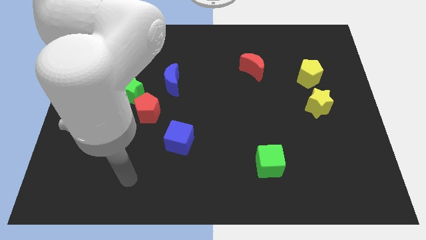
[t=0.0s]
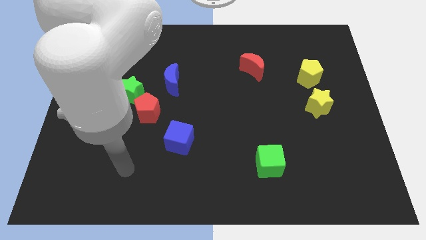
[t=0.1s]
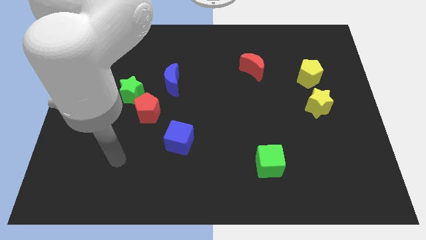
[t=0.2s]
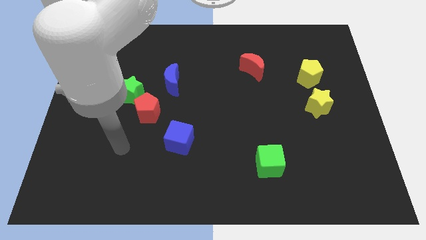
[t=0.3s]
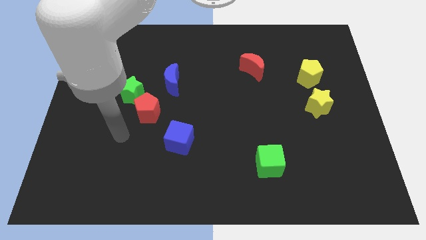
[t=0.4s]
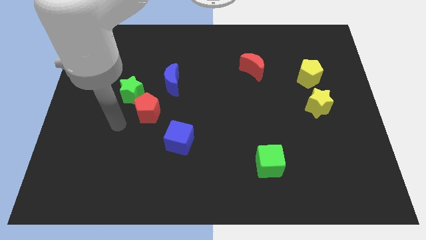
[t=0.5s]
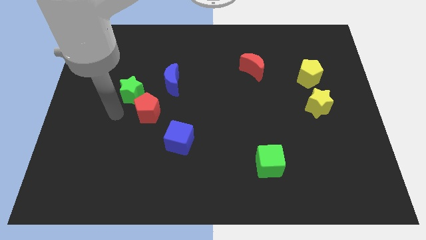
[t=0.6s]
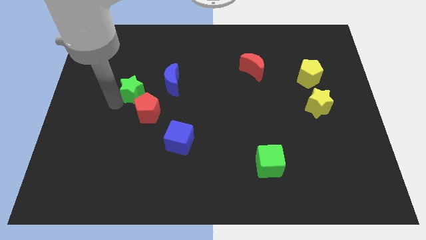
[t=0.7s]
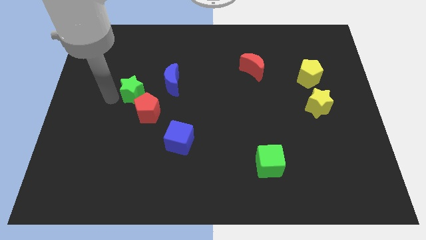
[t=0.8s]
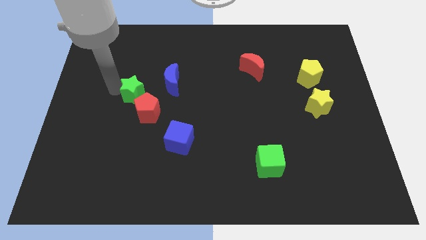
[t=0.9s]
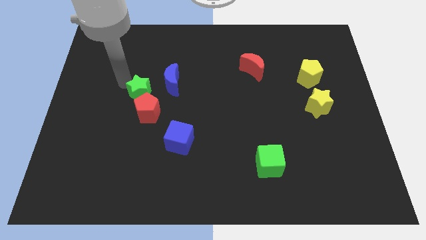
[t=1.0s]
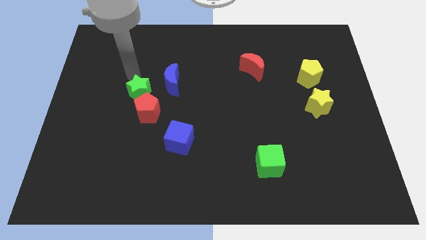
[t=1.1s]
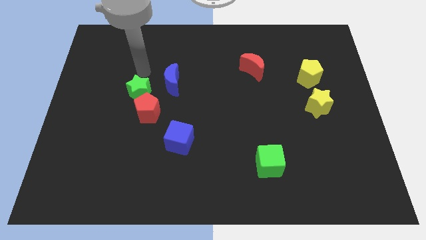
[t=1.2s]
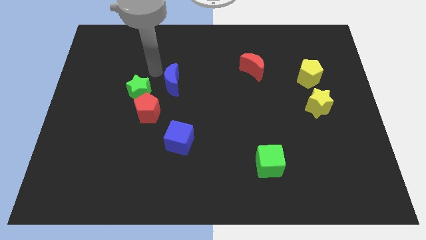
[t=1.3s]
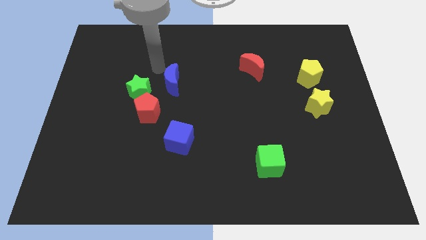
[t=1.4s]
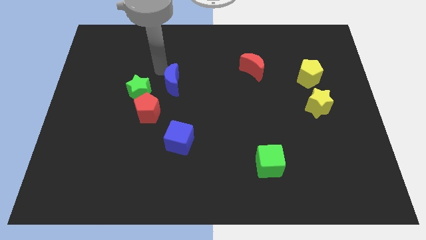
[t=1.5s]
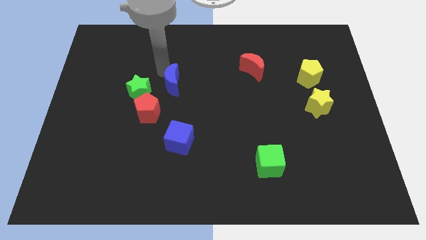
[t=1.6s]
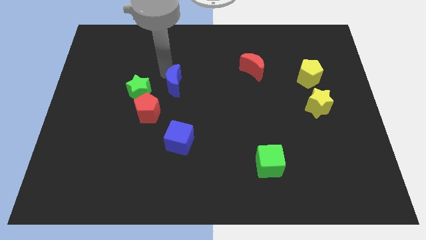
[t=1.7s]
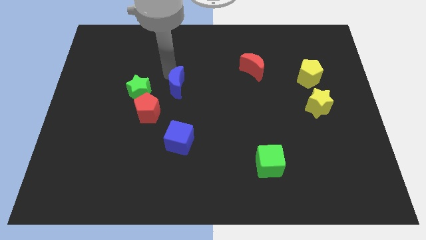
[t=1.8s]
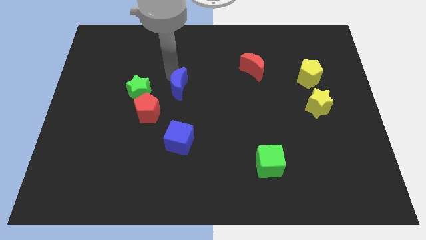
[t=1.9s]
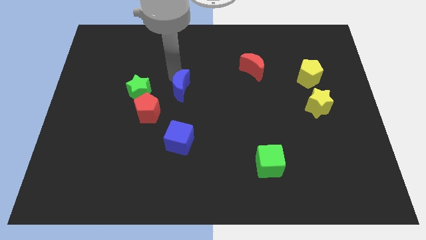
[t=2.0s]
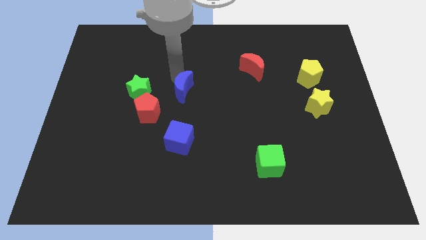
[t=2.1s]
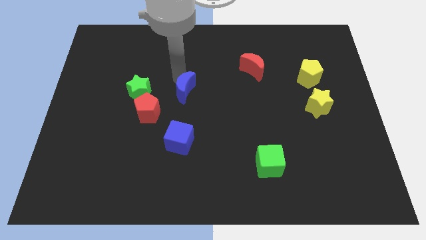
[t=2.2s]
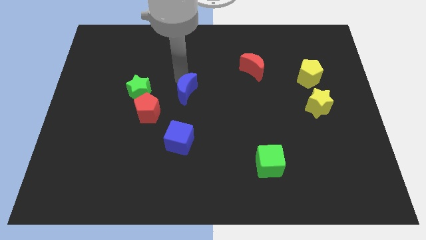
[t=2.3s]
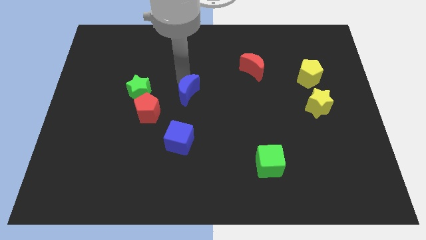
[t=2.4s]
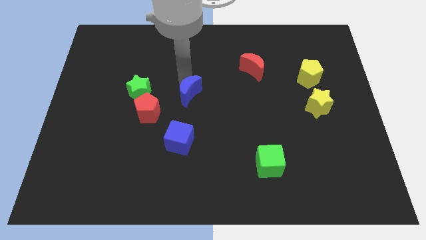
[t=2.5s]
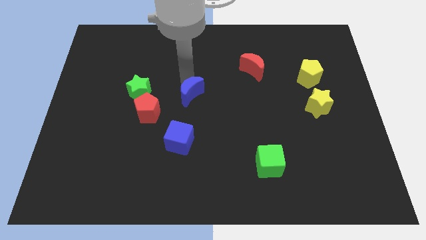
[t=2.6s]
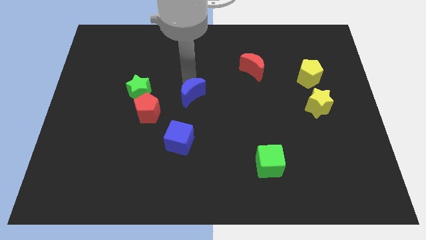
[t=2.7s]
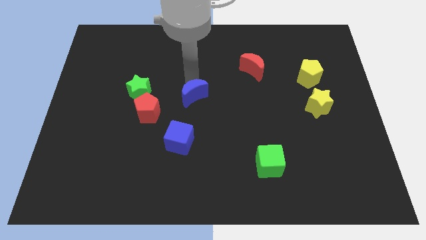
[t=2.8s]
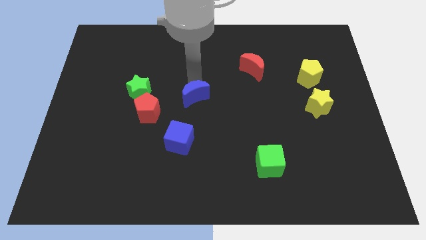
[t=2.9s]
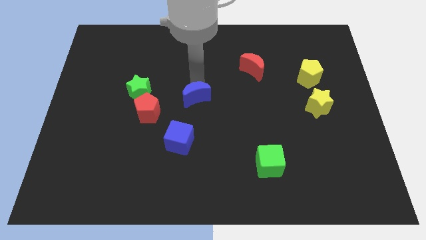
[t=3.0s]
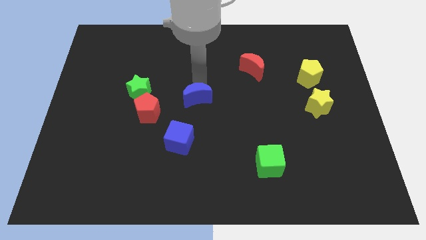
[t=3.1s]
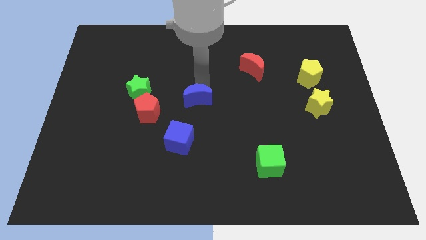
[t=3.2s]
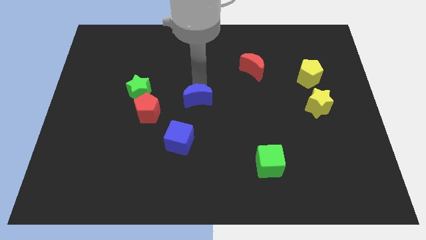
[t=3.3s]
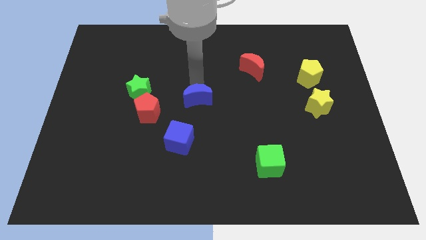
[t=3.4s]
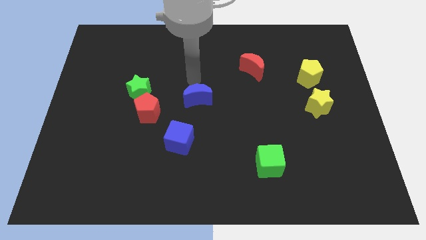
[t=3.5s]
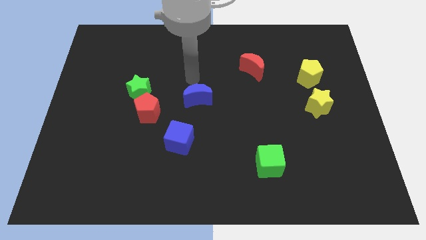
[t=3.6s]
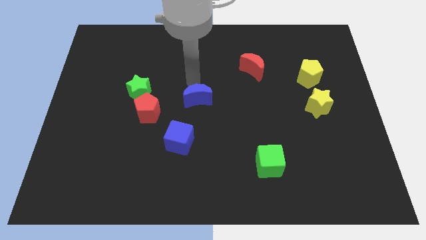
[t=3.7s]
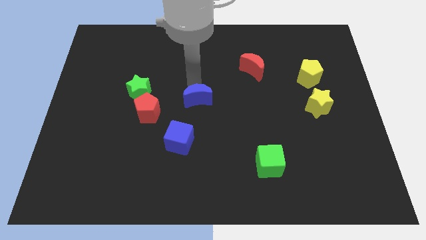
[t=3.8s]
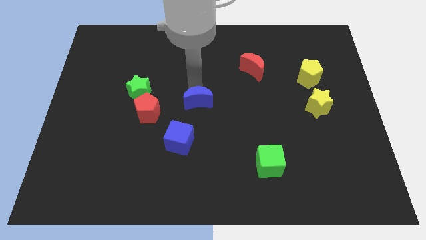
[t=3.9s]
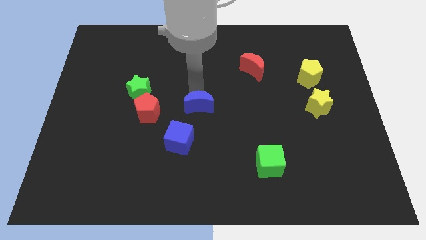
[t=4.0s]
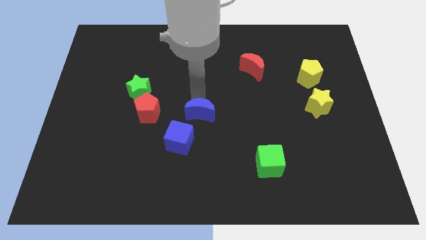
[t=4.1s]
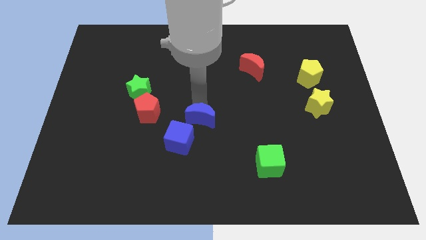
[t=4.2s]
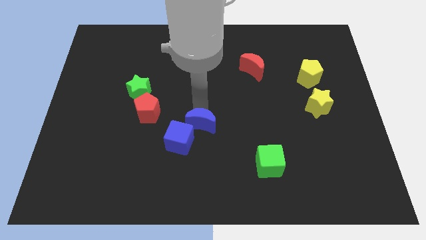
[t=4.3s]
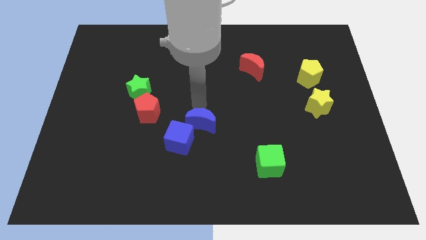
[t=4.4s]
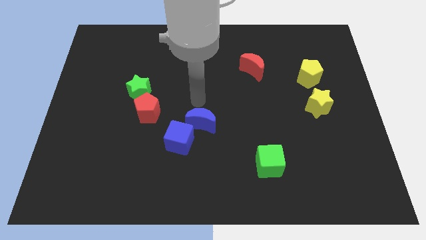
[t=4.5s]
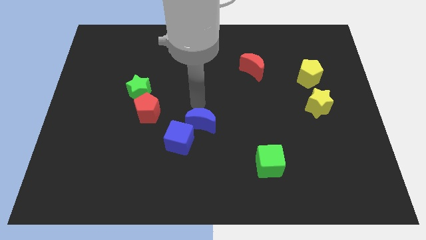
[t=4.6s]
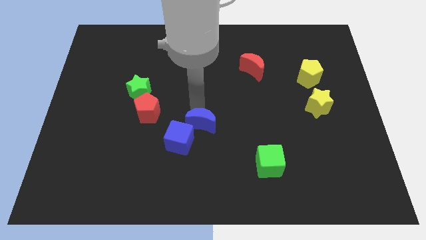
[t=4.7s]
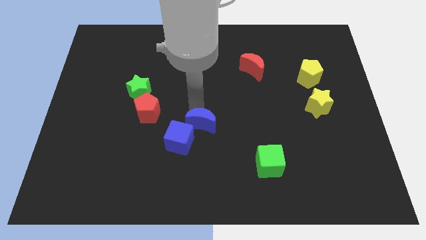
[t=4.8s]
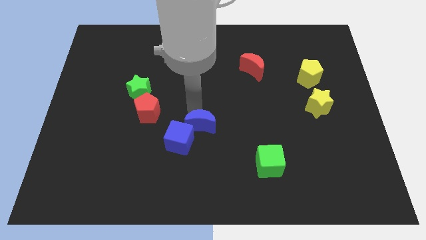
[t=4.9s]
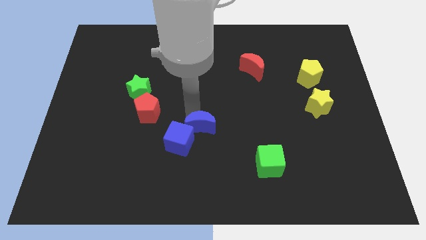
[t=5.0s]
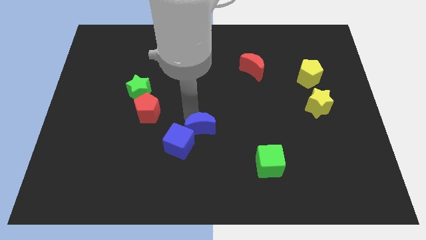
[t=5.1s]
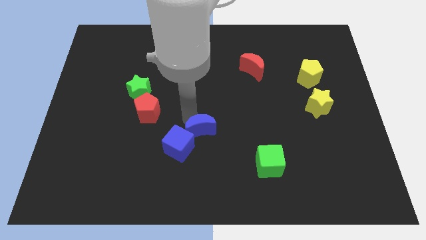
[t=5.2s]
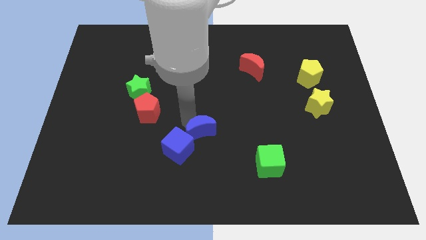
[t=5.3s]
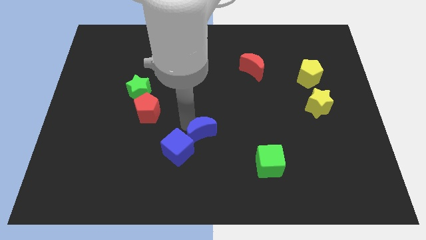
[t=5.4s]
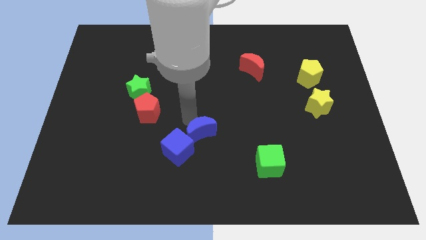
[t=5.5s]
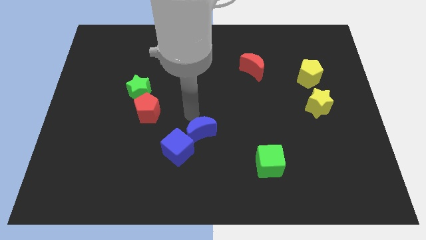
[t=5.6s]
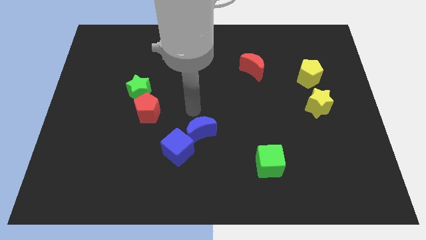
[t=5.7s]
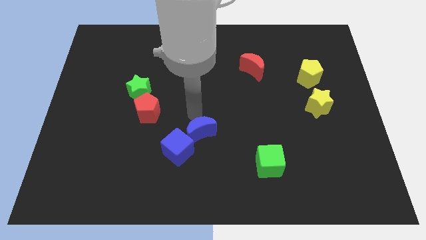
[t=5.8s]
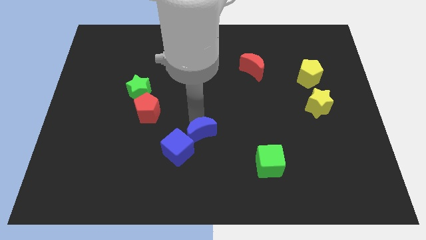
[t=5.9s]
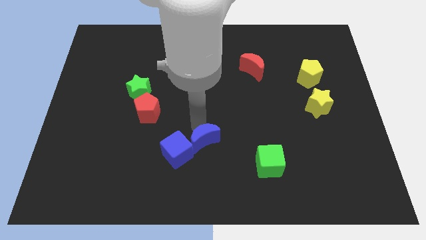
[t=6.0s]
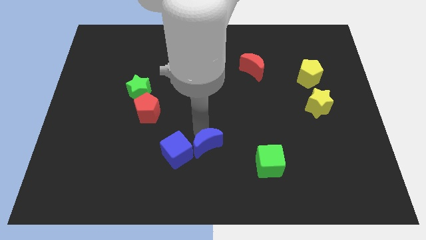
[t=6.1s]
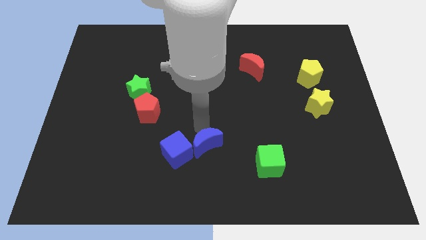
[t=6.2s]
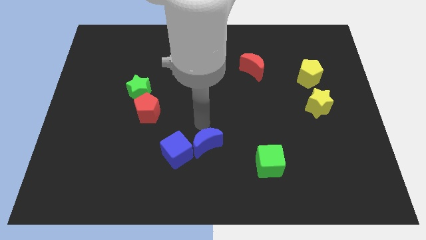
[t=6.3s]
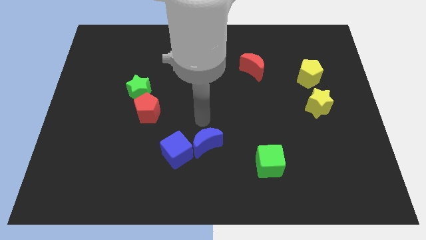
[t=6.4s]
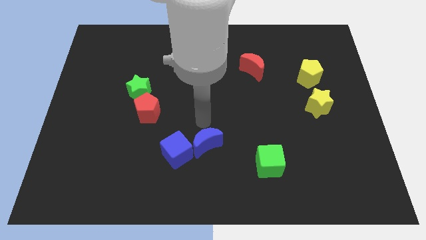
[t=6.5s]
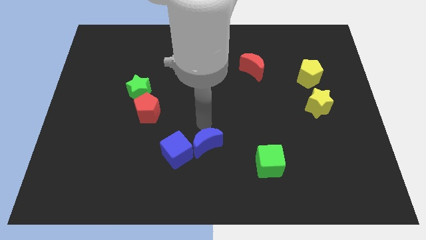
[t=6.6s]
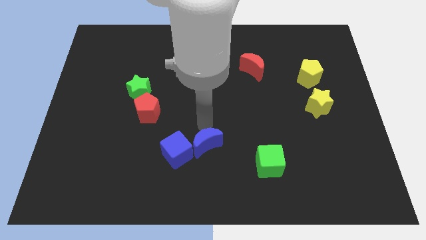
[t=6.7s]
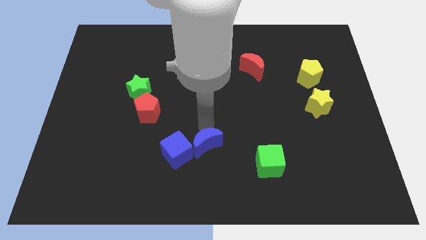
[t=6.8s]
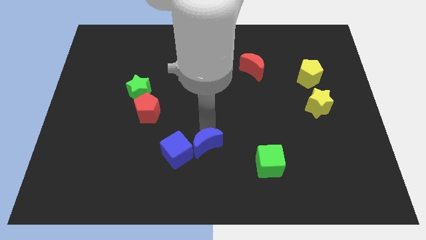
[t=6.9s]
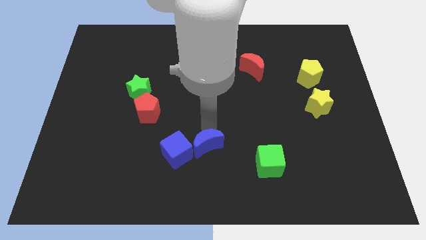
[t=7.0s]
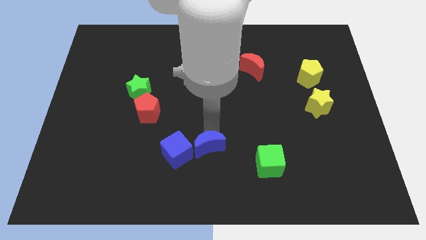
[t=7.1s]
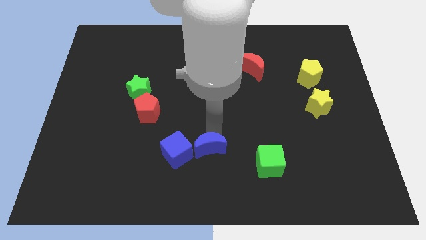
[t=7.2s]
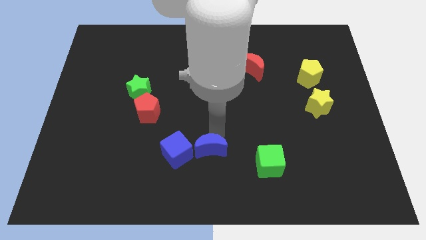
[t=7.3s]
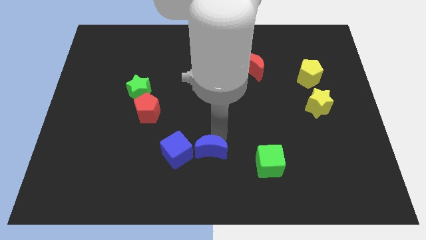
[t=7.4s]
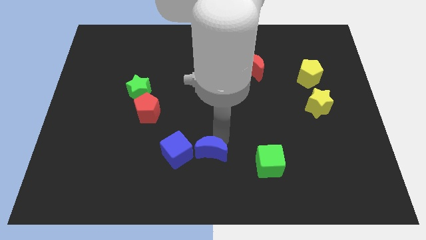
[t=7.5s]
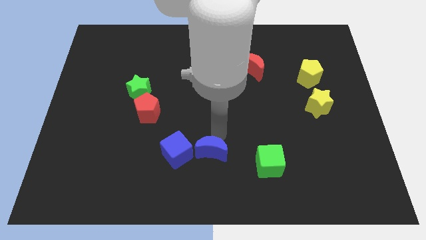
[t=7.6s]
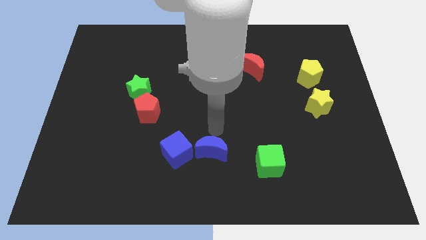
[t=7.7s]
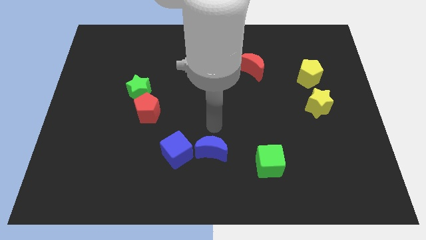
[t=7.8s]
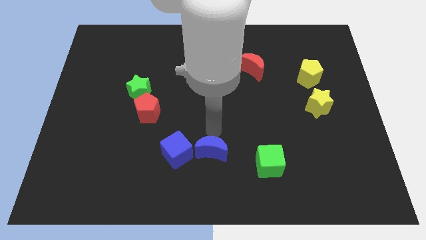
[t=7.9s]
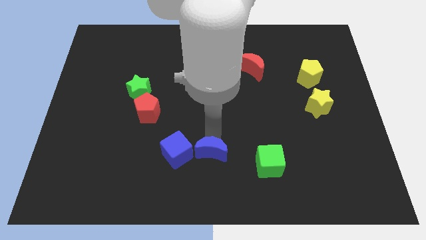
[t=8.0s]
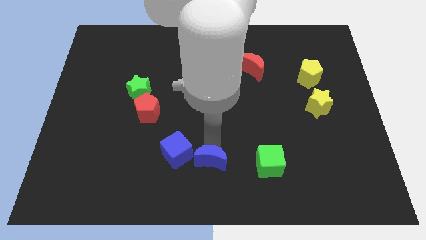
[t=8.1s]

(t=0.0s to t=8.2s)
move the blue moon to the bottom
